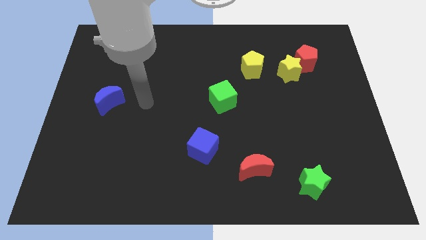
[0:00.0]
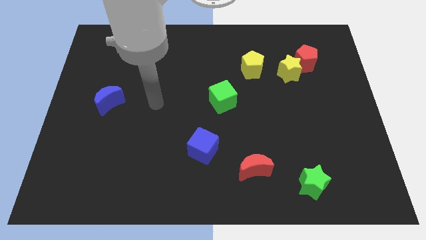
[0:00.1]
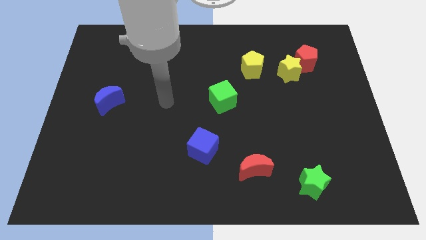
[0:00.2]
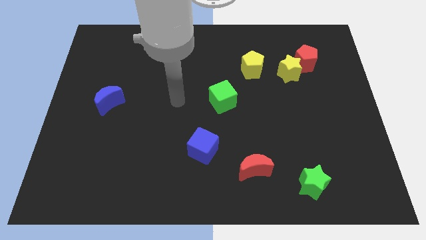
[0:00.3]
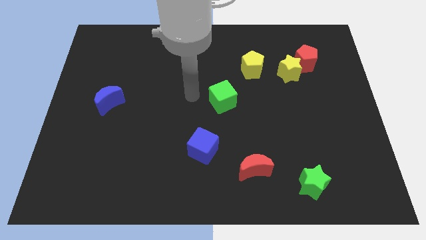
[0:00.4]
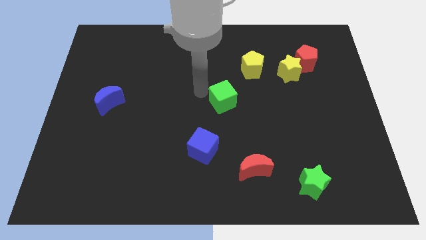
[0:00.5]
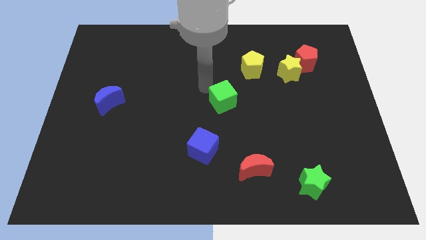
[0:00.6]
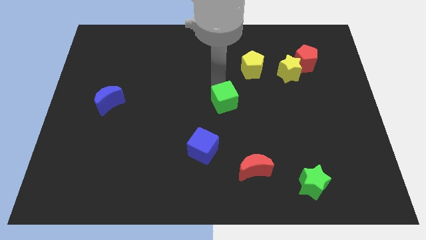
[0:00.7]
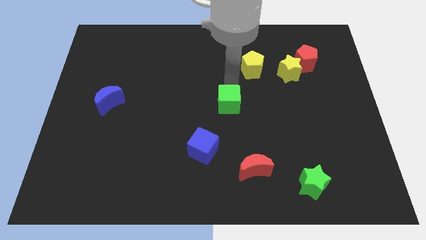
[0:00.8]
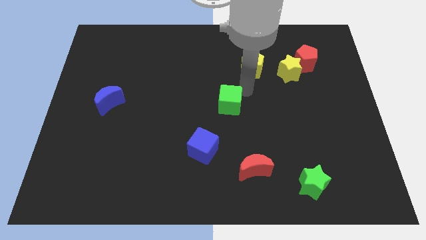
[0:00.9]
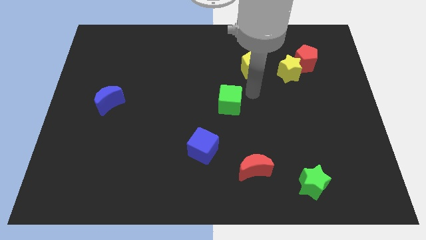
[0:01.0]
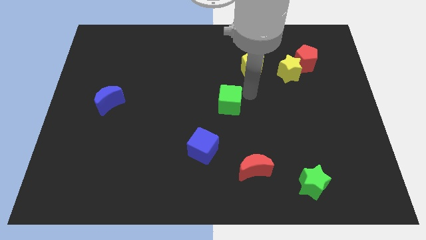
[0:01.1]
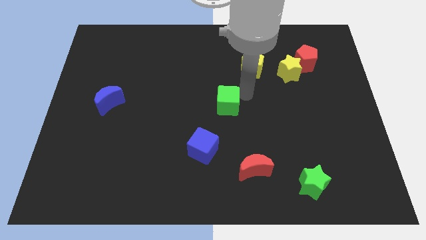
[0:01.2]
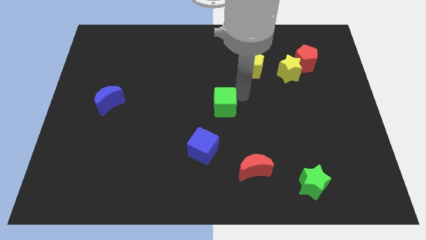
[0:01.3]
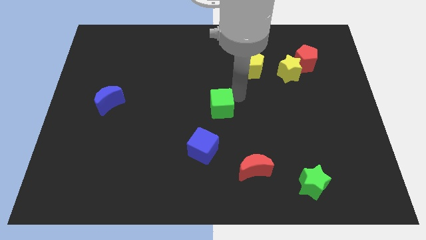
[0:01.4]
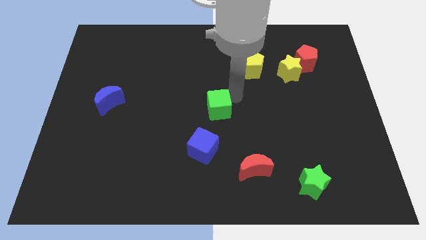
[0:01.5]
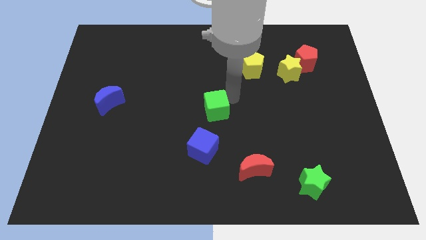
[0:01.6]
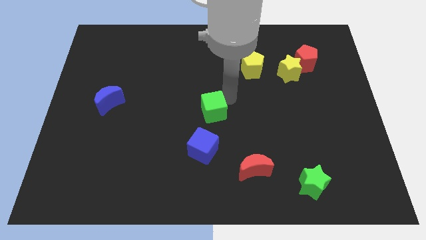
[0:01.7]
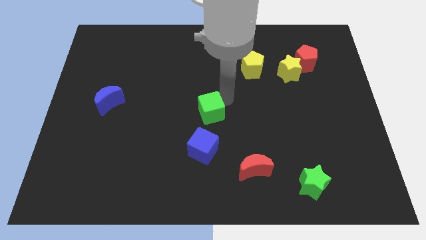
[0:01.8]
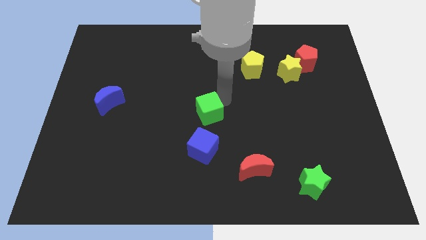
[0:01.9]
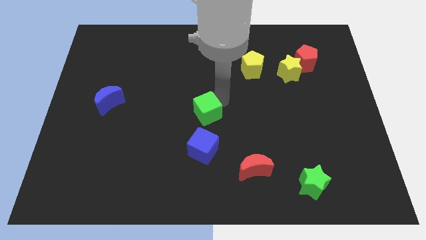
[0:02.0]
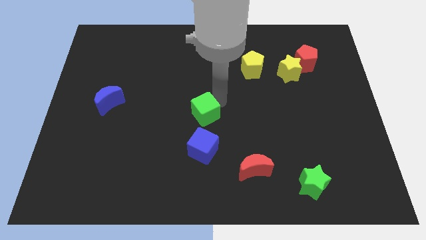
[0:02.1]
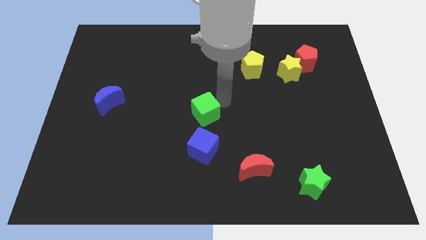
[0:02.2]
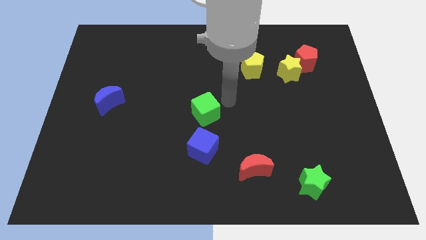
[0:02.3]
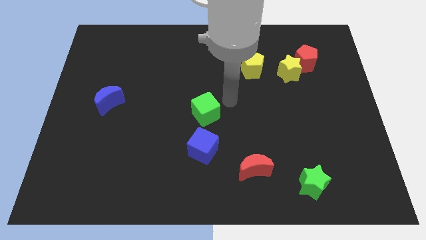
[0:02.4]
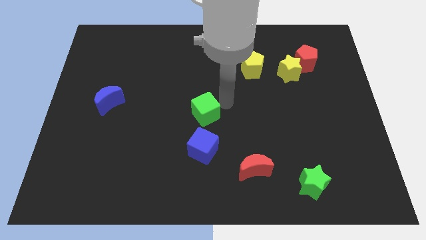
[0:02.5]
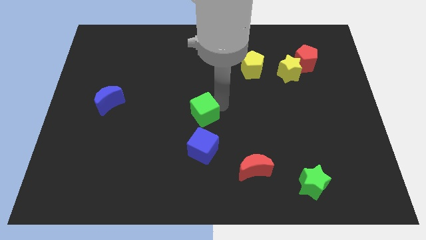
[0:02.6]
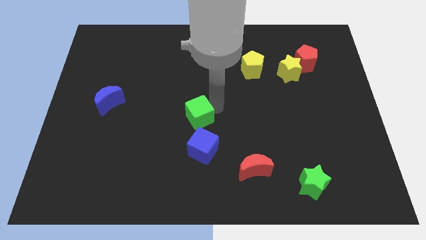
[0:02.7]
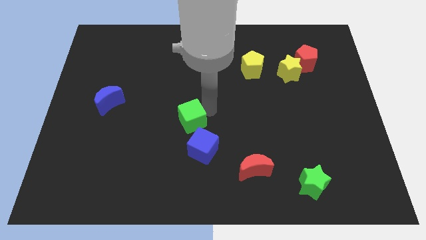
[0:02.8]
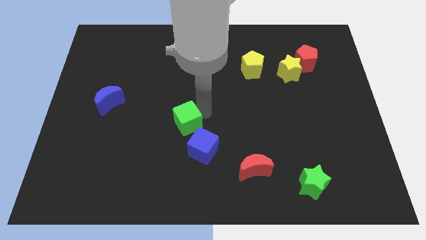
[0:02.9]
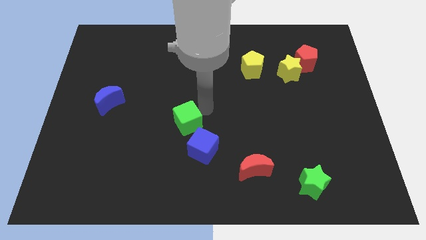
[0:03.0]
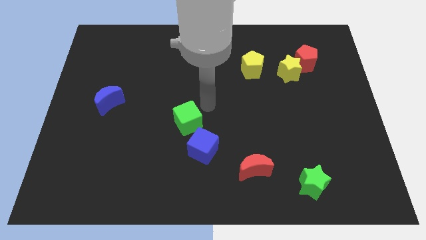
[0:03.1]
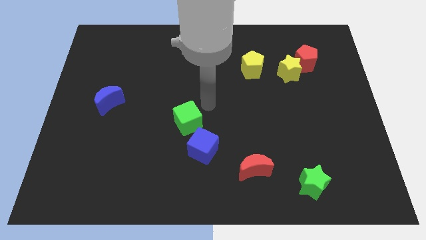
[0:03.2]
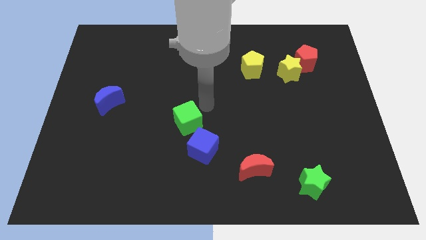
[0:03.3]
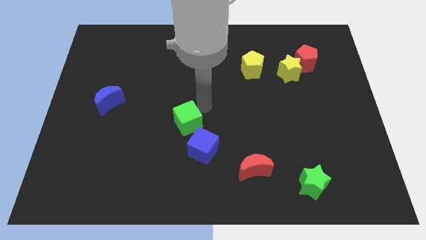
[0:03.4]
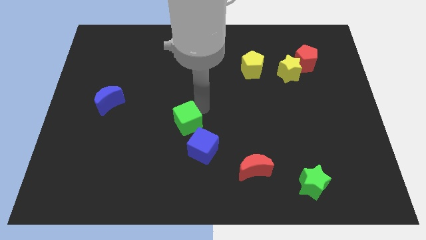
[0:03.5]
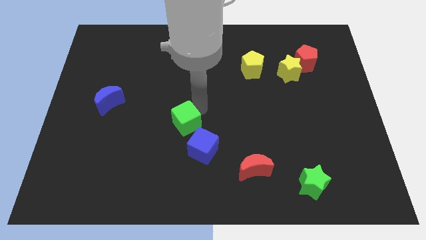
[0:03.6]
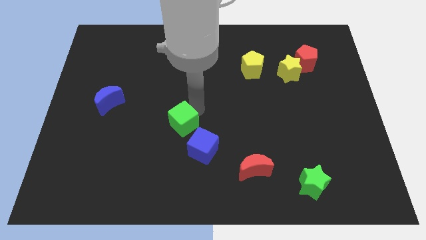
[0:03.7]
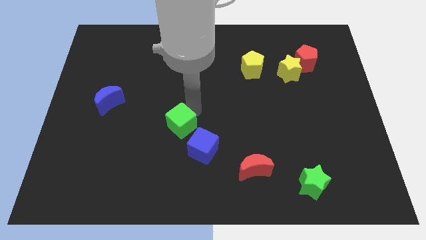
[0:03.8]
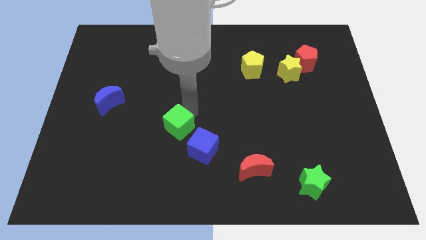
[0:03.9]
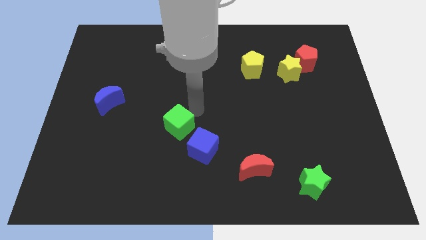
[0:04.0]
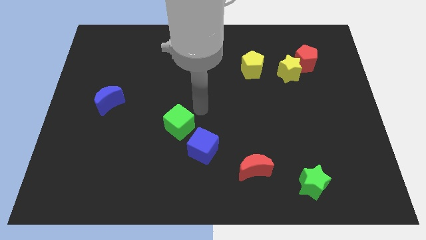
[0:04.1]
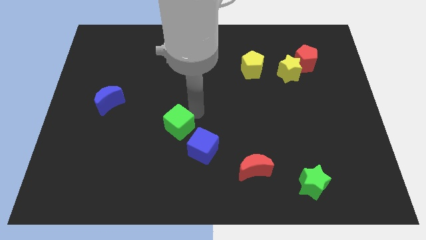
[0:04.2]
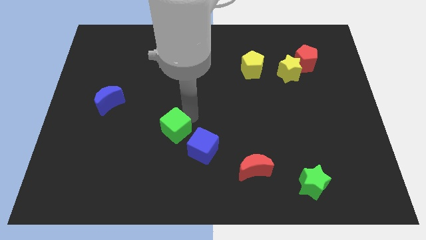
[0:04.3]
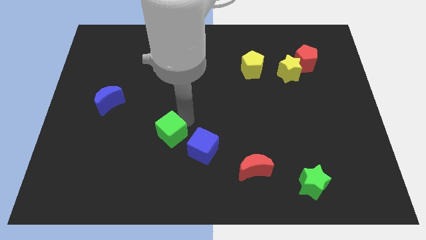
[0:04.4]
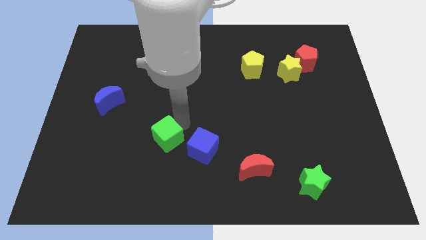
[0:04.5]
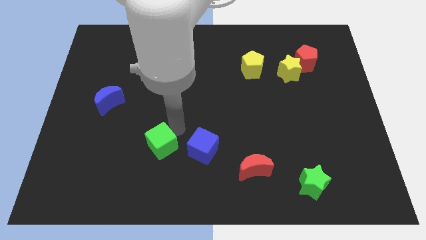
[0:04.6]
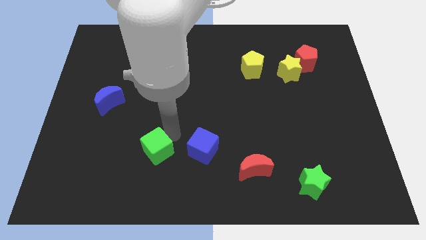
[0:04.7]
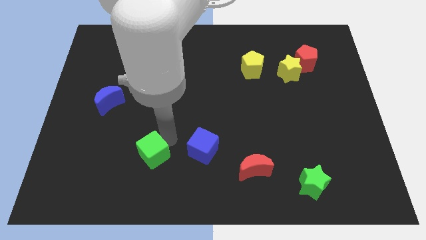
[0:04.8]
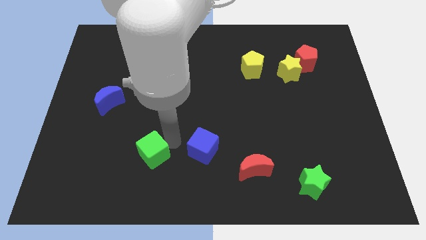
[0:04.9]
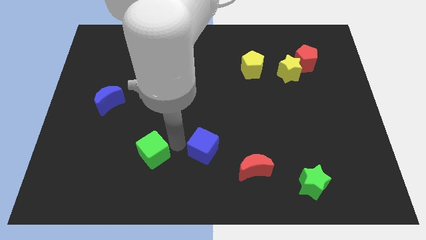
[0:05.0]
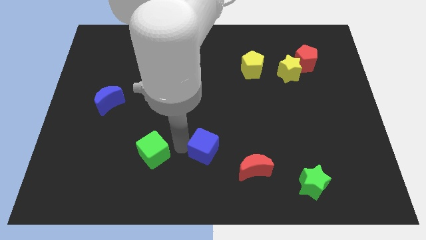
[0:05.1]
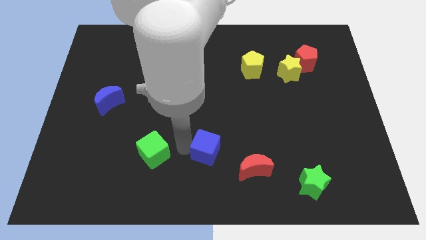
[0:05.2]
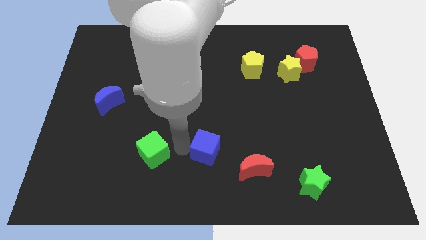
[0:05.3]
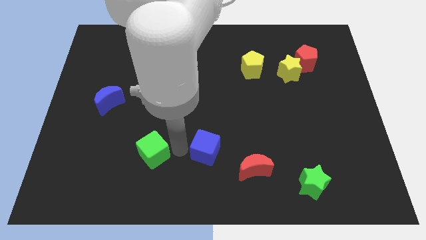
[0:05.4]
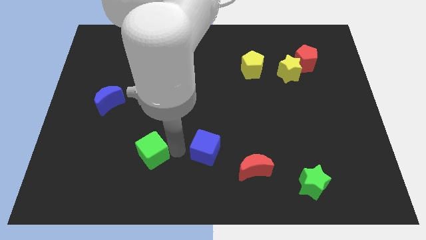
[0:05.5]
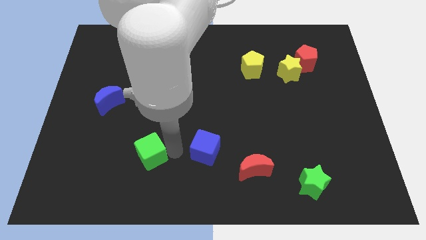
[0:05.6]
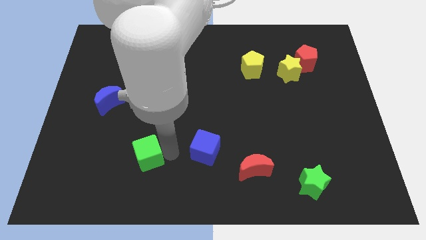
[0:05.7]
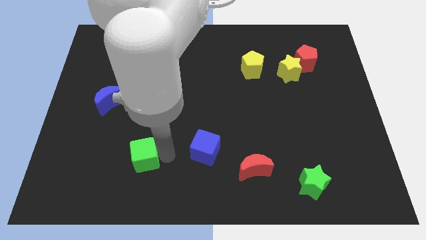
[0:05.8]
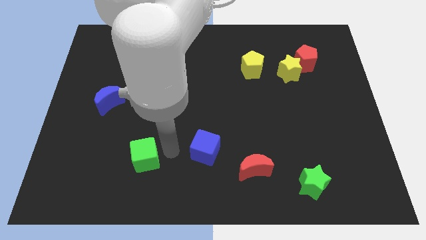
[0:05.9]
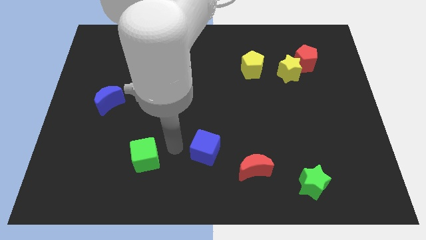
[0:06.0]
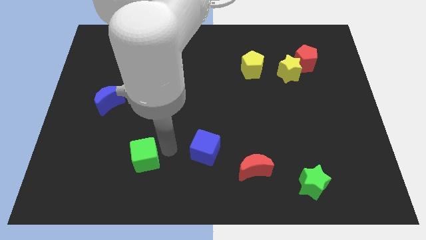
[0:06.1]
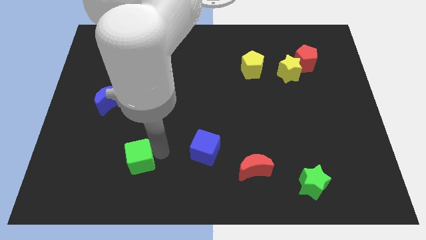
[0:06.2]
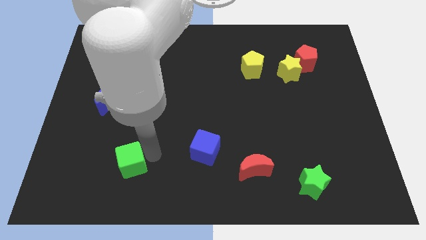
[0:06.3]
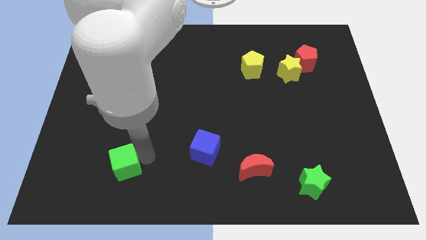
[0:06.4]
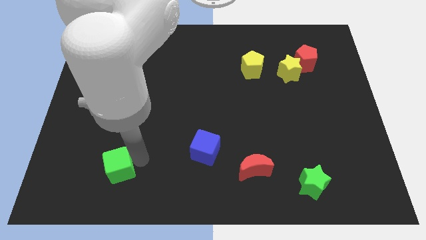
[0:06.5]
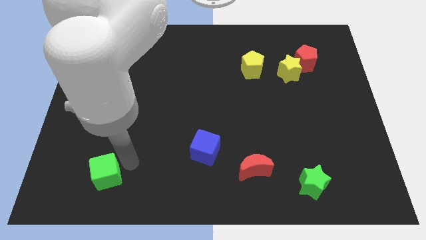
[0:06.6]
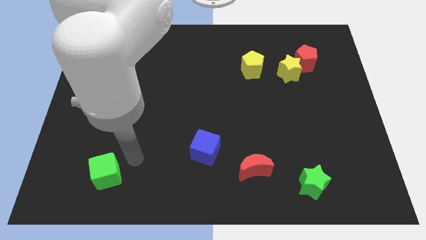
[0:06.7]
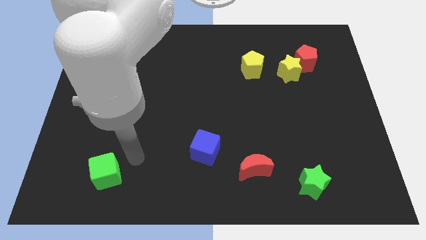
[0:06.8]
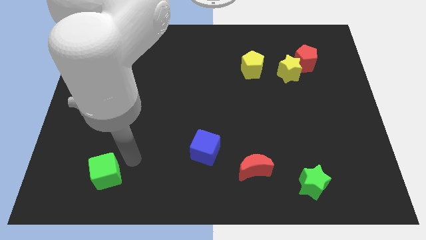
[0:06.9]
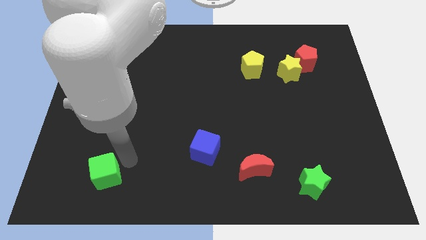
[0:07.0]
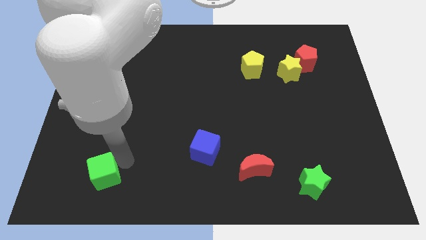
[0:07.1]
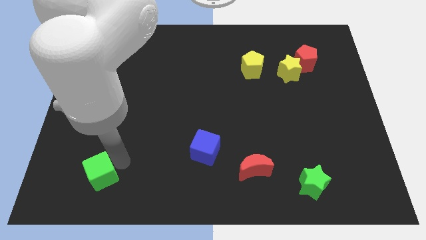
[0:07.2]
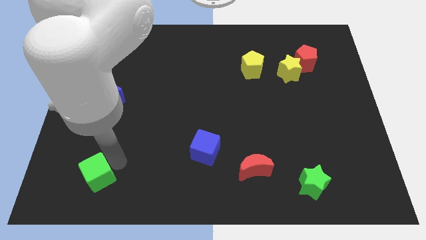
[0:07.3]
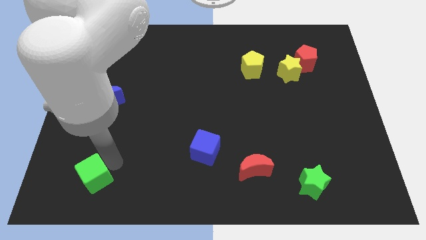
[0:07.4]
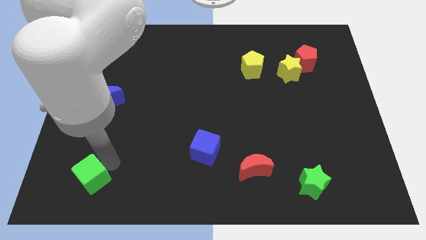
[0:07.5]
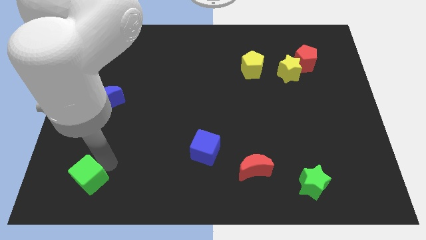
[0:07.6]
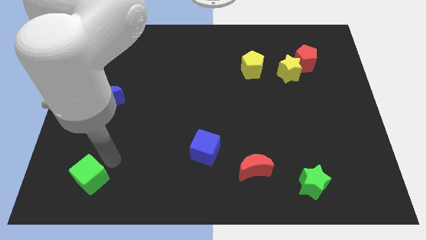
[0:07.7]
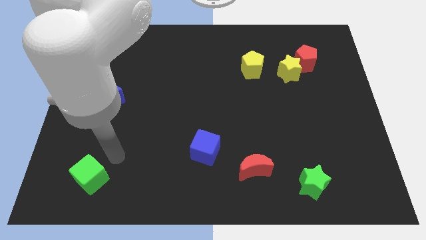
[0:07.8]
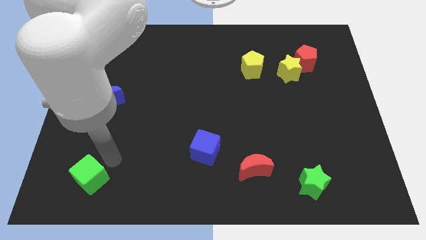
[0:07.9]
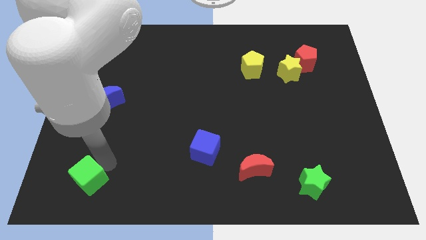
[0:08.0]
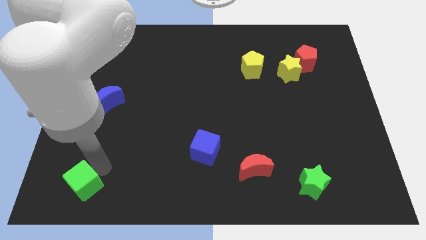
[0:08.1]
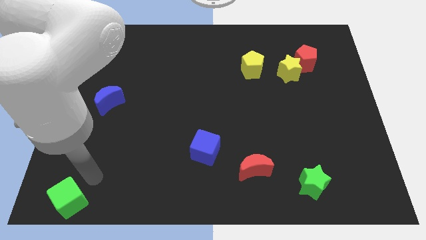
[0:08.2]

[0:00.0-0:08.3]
slide the green cube to the bottom left corner
